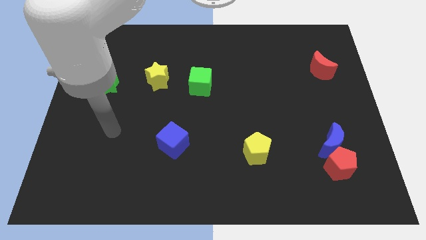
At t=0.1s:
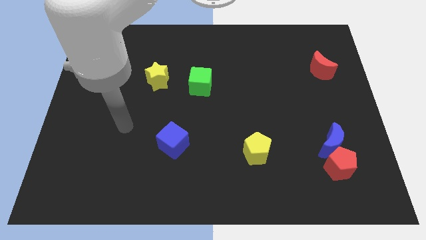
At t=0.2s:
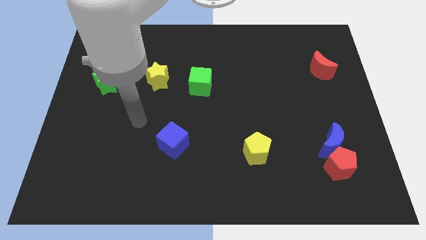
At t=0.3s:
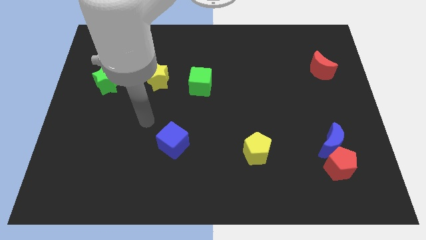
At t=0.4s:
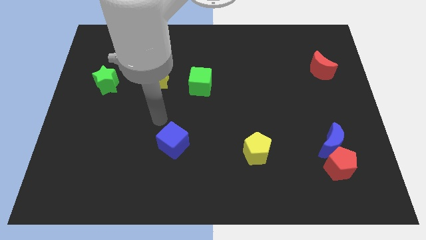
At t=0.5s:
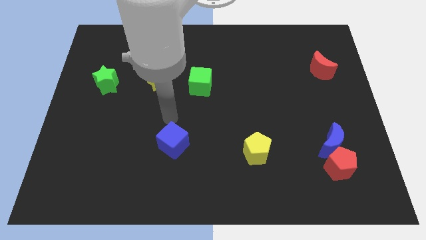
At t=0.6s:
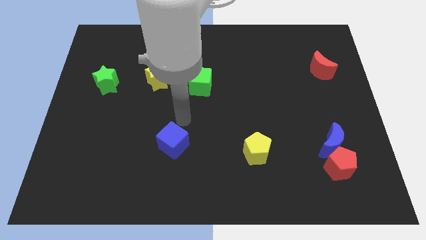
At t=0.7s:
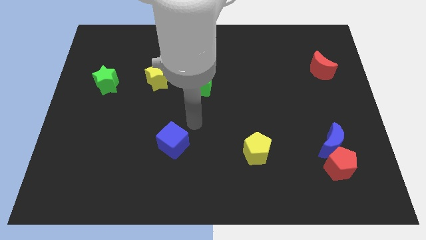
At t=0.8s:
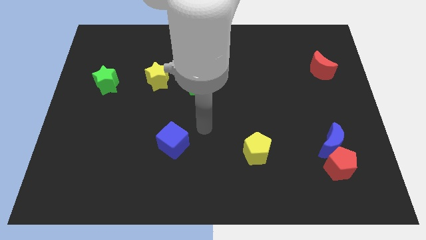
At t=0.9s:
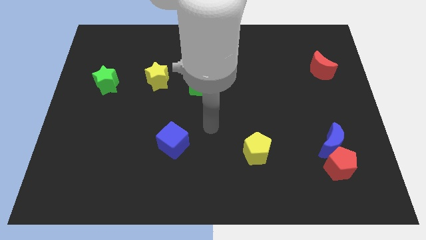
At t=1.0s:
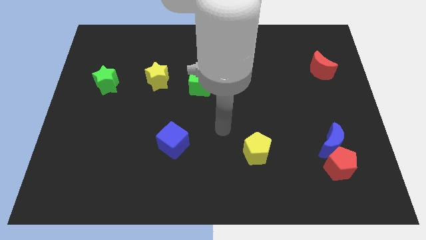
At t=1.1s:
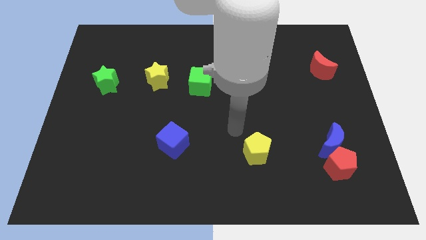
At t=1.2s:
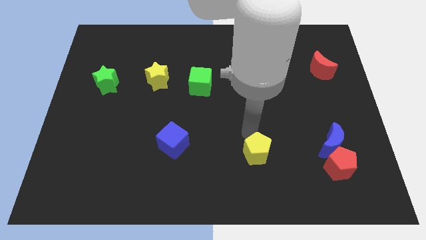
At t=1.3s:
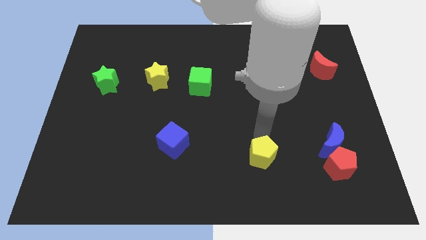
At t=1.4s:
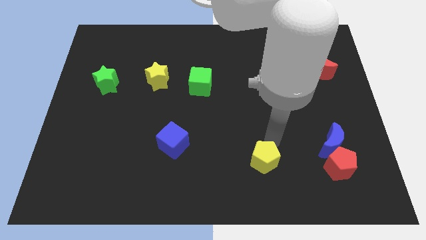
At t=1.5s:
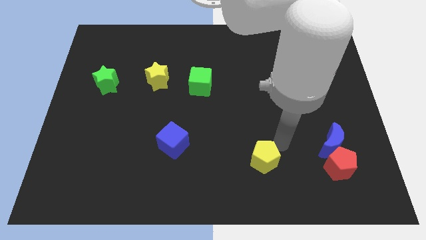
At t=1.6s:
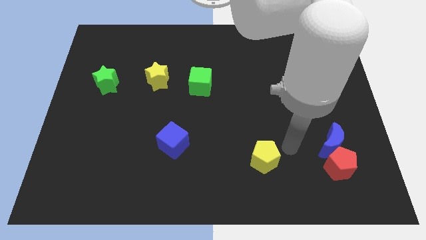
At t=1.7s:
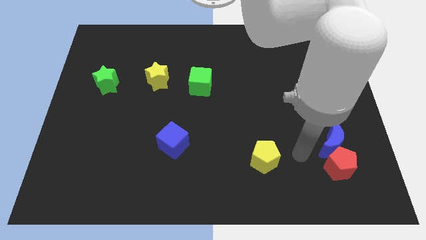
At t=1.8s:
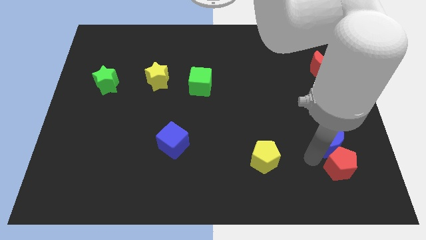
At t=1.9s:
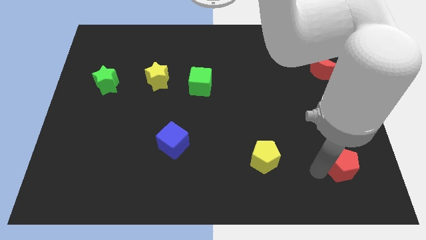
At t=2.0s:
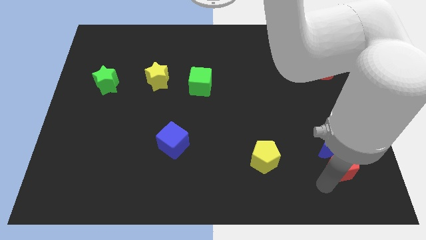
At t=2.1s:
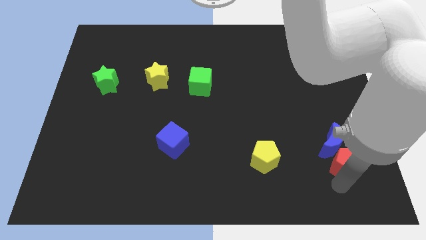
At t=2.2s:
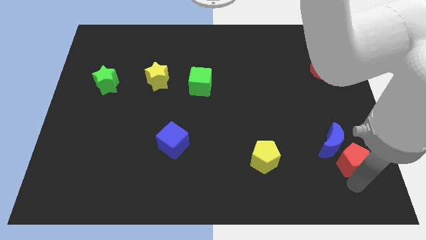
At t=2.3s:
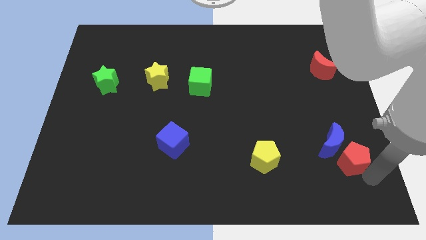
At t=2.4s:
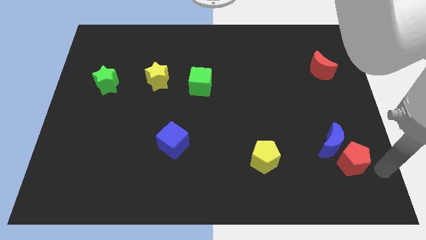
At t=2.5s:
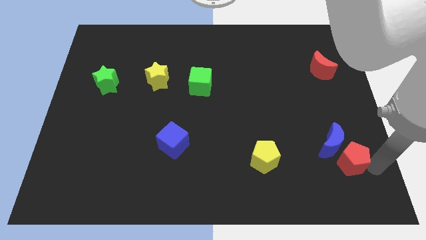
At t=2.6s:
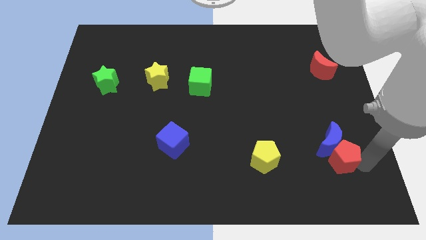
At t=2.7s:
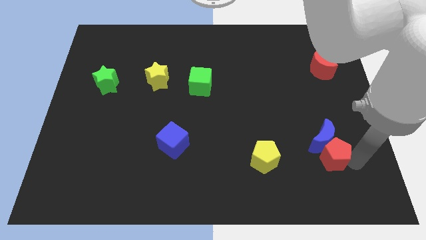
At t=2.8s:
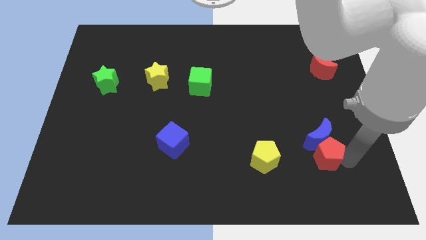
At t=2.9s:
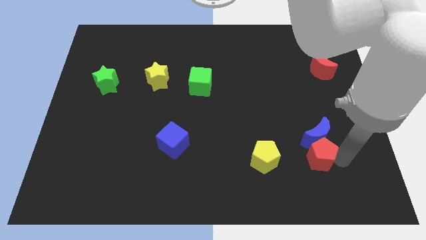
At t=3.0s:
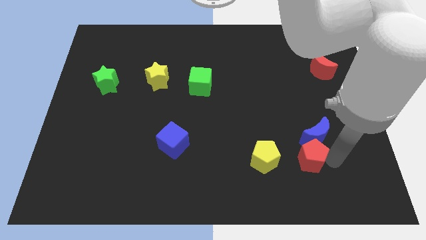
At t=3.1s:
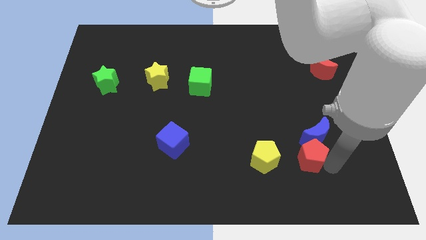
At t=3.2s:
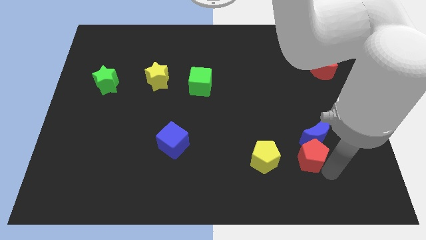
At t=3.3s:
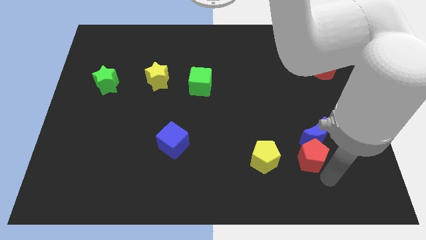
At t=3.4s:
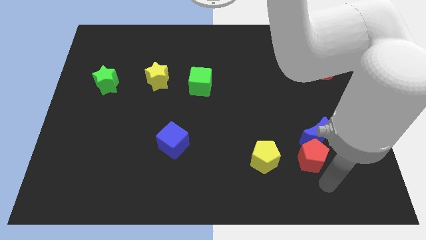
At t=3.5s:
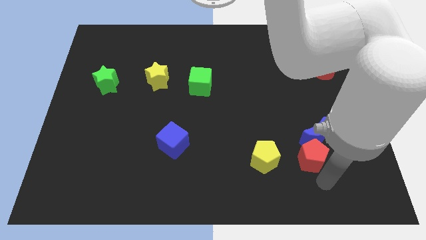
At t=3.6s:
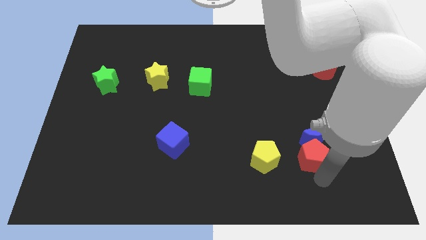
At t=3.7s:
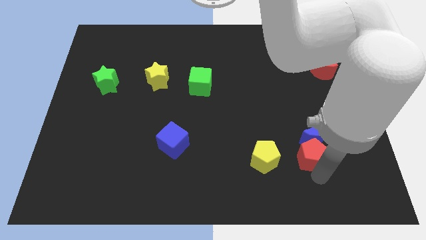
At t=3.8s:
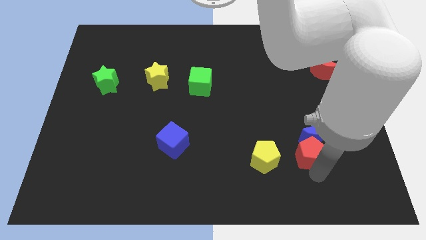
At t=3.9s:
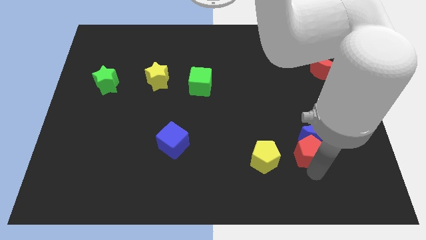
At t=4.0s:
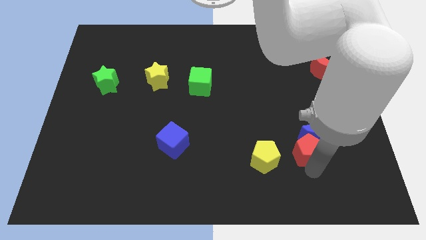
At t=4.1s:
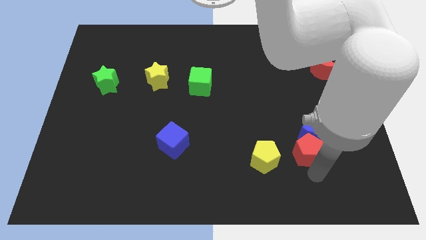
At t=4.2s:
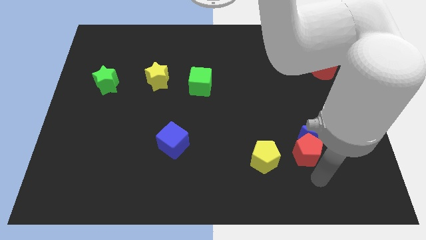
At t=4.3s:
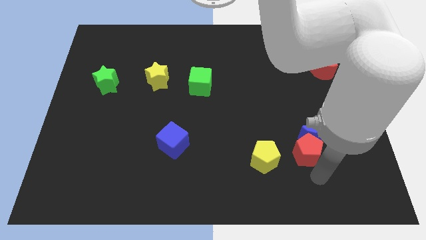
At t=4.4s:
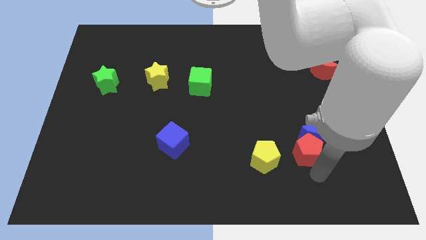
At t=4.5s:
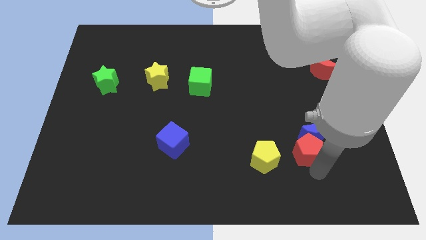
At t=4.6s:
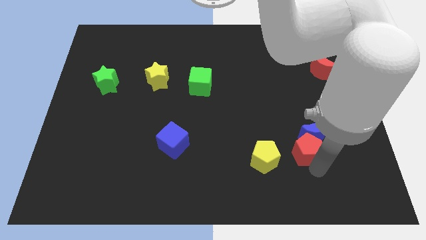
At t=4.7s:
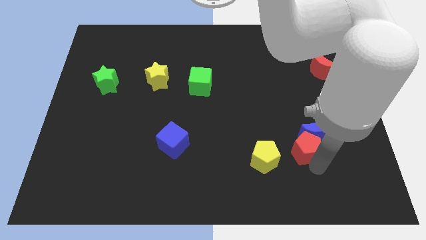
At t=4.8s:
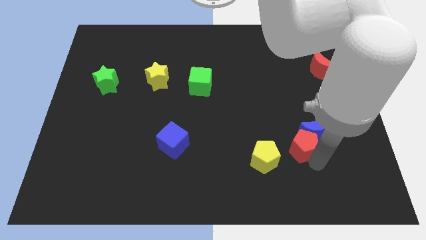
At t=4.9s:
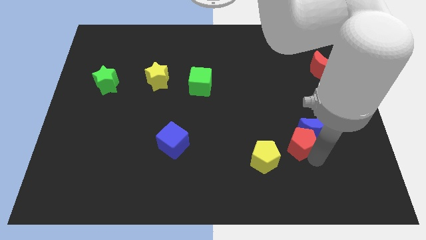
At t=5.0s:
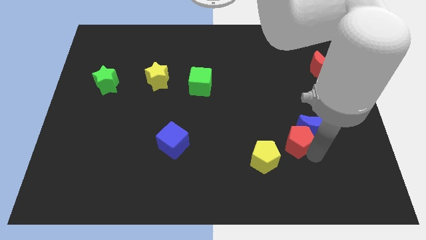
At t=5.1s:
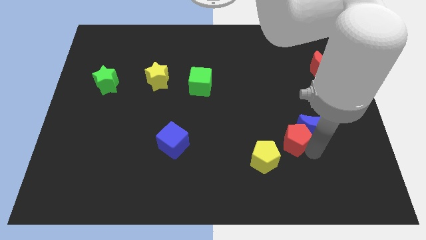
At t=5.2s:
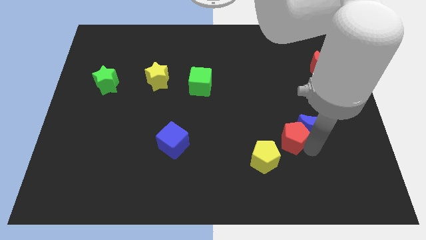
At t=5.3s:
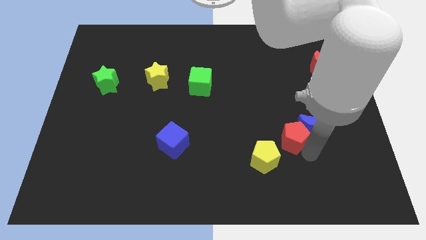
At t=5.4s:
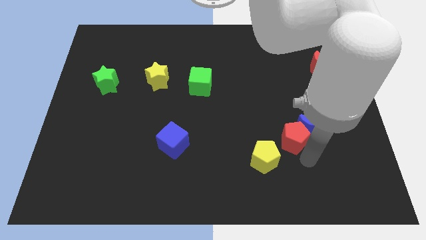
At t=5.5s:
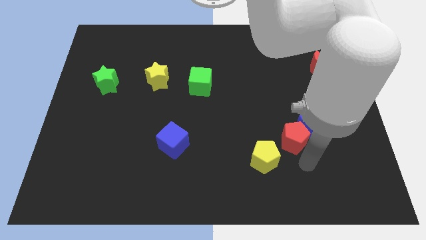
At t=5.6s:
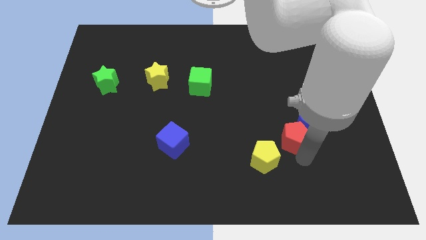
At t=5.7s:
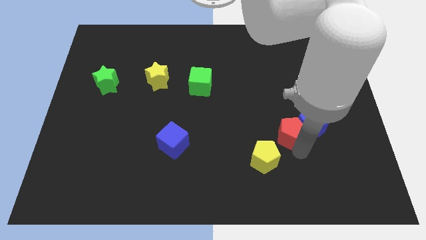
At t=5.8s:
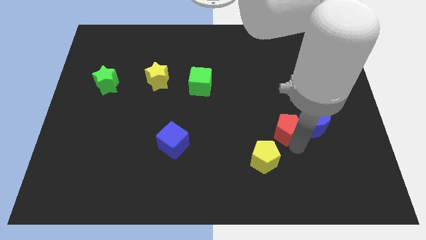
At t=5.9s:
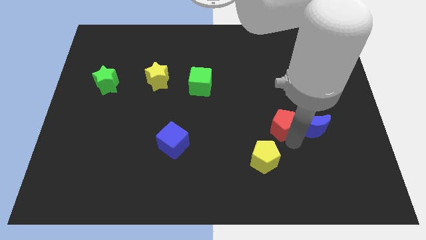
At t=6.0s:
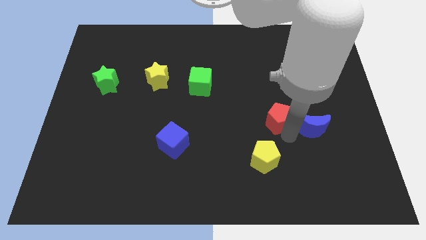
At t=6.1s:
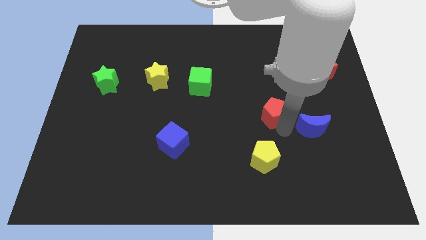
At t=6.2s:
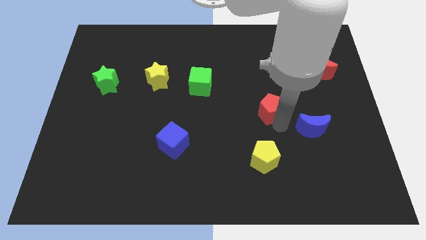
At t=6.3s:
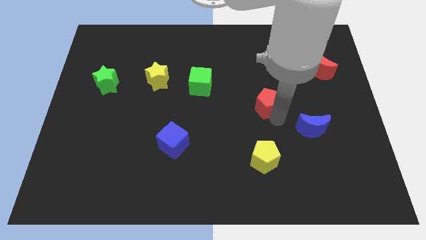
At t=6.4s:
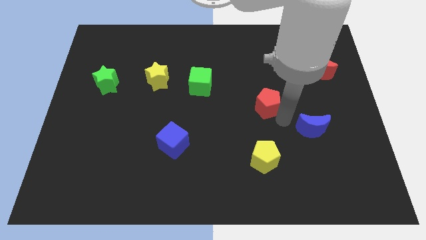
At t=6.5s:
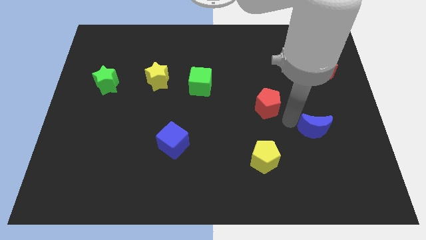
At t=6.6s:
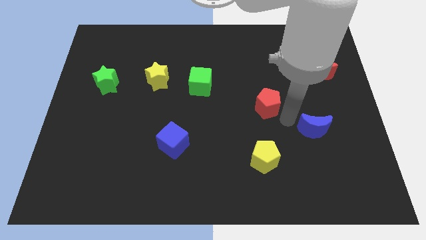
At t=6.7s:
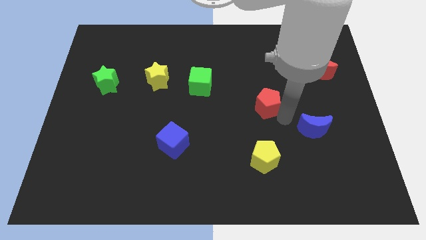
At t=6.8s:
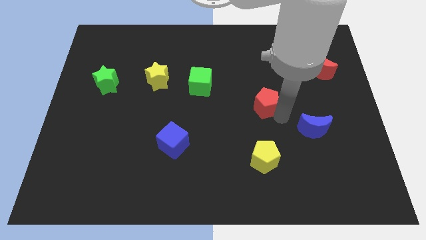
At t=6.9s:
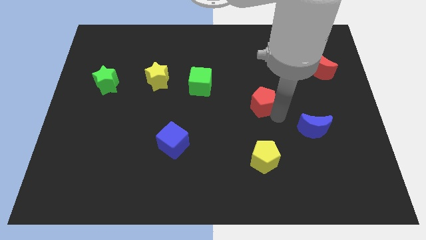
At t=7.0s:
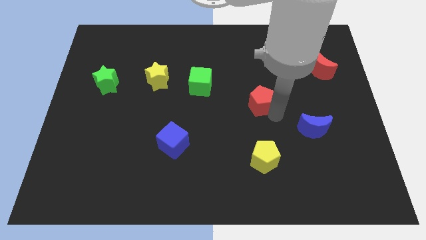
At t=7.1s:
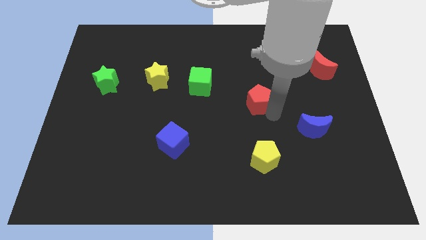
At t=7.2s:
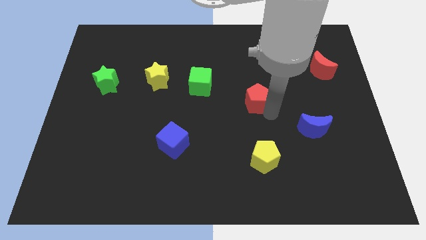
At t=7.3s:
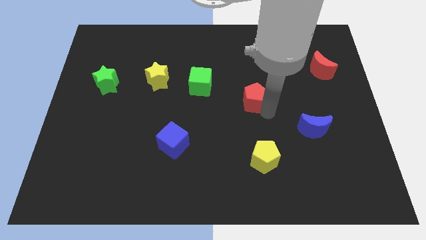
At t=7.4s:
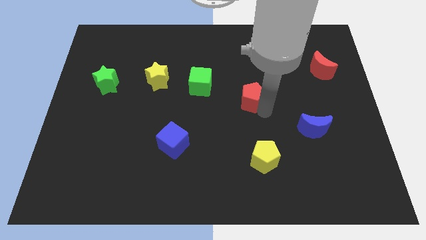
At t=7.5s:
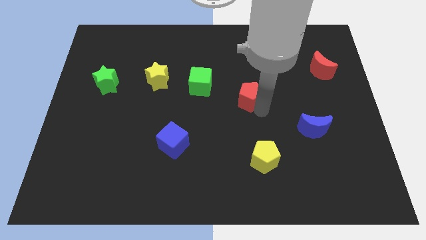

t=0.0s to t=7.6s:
slide the red pentagon to the right of the green cube
